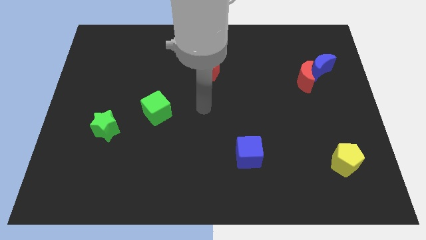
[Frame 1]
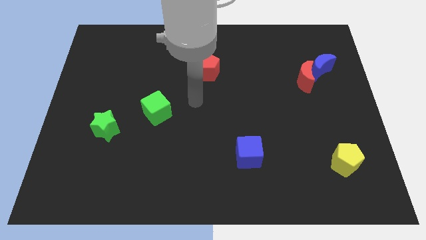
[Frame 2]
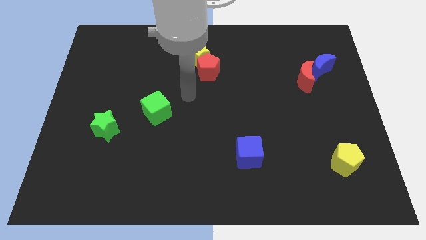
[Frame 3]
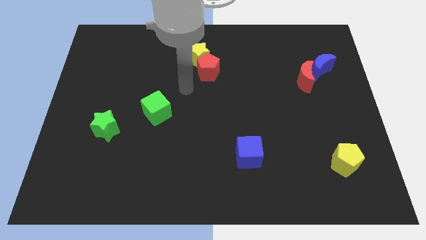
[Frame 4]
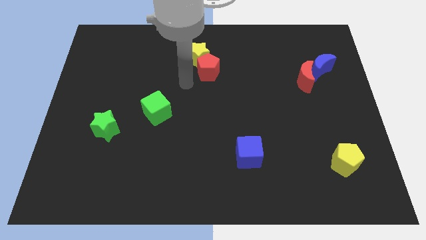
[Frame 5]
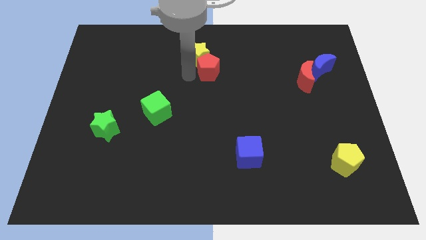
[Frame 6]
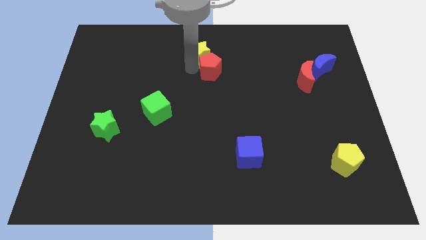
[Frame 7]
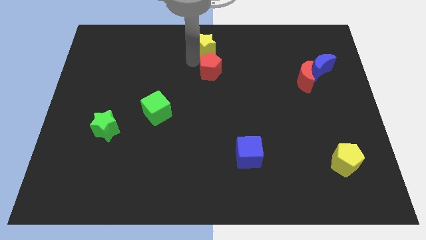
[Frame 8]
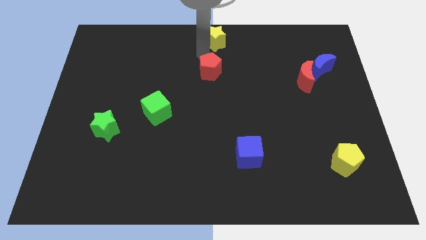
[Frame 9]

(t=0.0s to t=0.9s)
move the red pentagon away from the yellow star

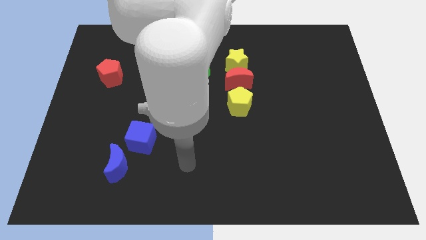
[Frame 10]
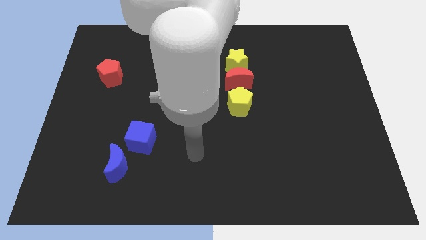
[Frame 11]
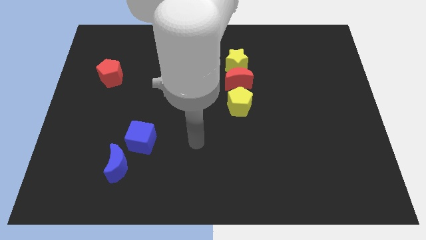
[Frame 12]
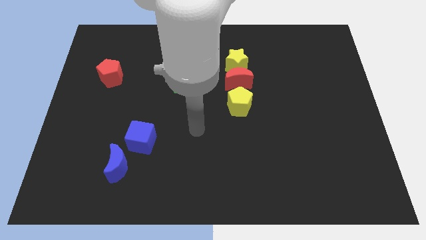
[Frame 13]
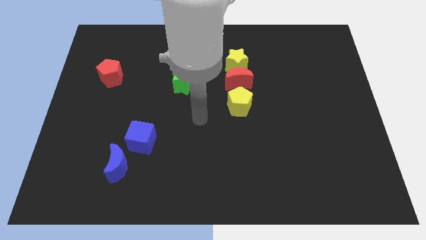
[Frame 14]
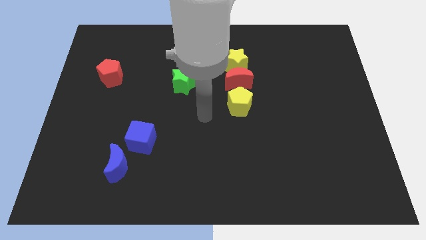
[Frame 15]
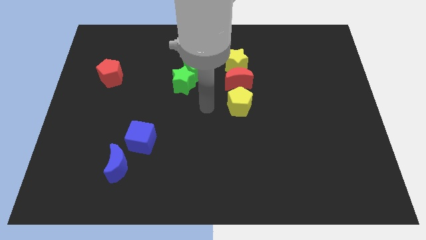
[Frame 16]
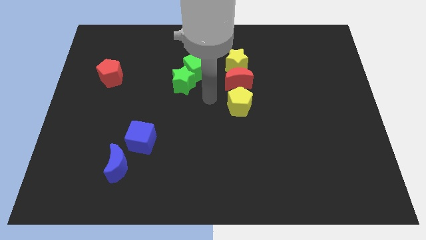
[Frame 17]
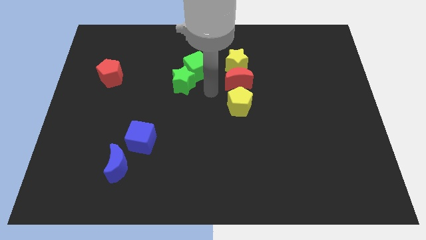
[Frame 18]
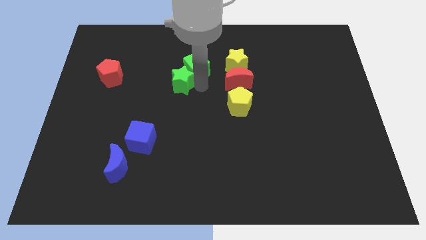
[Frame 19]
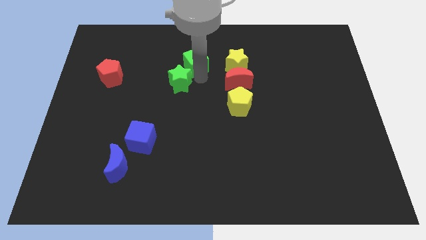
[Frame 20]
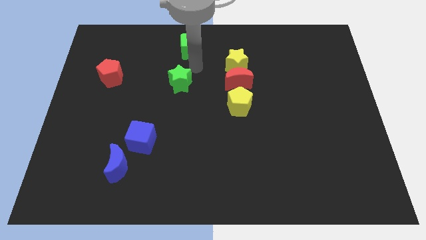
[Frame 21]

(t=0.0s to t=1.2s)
separate the green star from the green cube

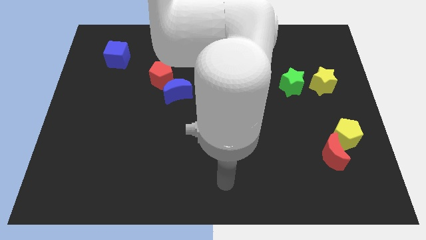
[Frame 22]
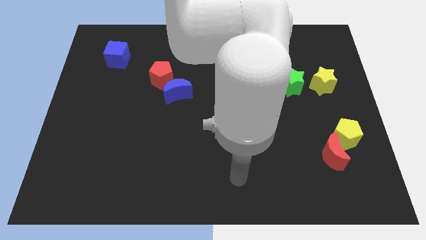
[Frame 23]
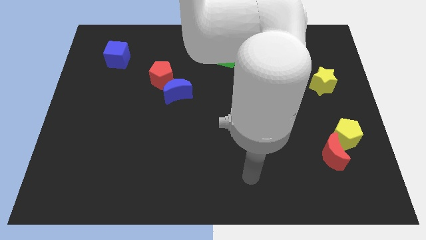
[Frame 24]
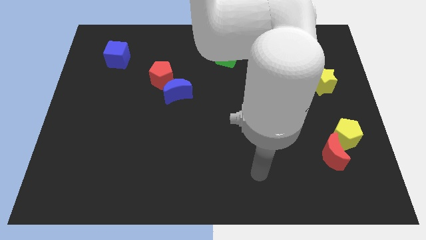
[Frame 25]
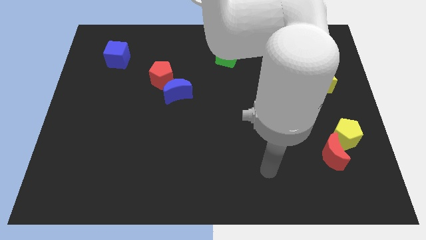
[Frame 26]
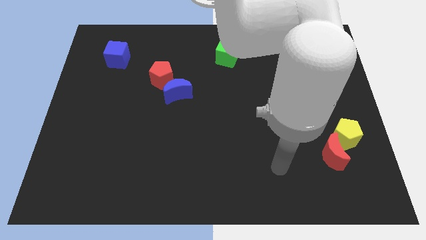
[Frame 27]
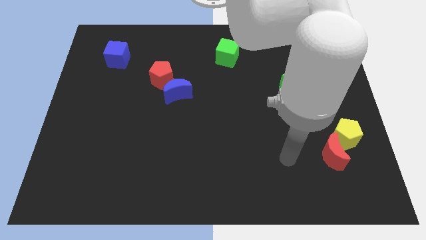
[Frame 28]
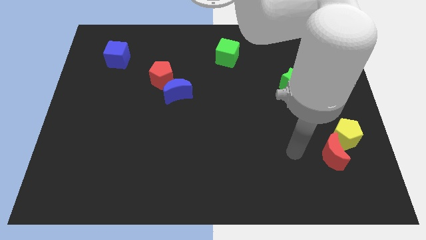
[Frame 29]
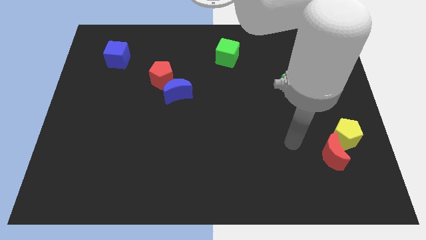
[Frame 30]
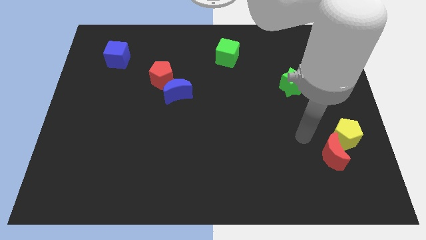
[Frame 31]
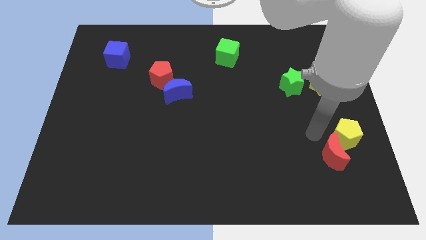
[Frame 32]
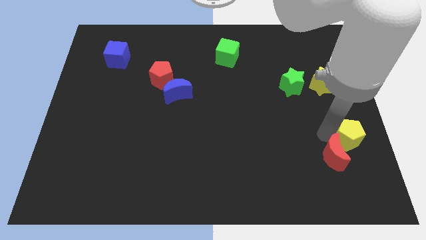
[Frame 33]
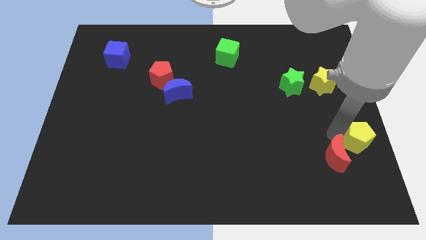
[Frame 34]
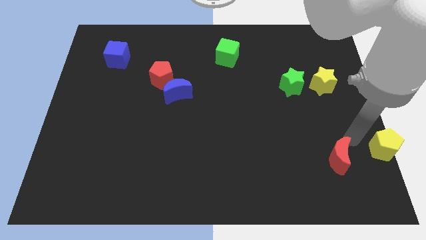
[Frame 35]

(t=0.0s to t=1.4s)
separate the red moon from the yellow pentagon

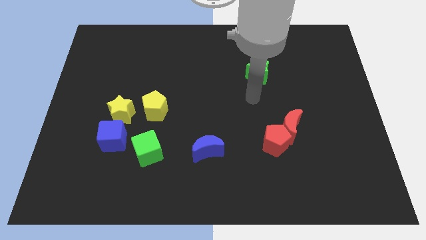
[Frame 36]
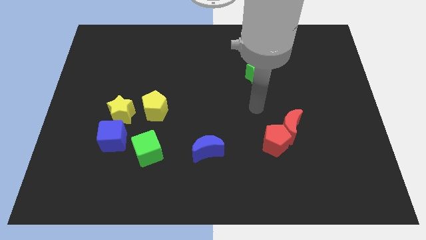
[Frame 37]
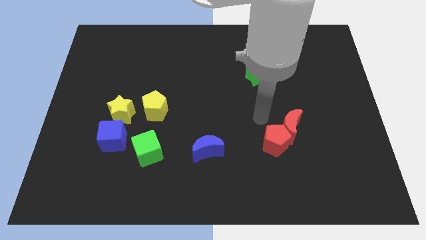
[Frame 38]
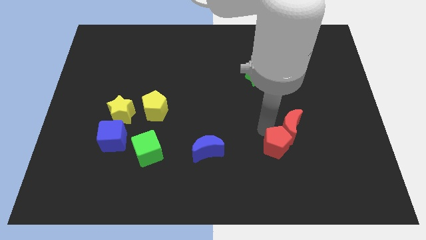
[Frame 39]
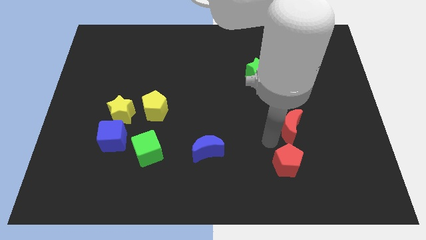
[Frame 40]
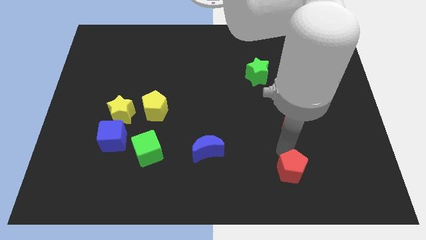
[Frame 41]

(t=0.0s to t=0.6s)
separate the red moon from the red pentagon

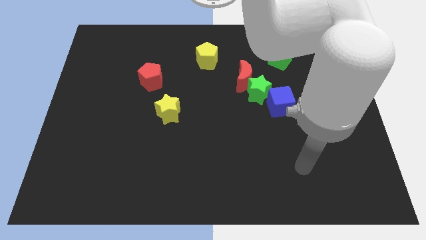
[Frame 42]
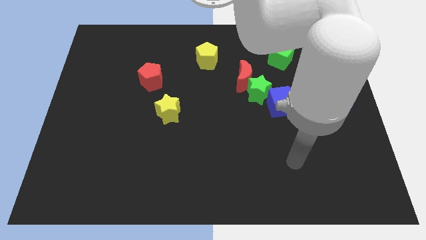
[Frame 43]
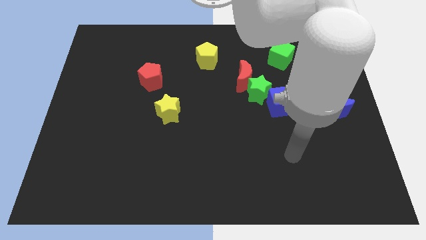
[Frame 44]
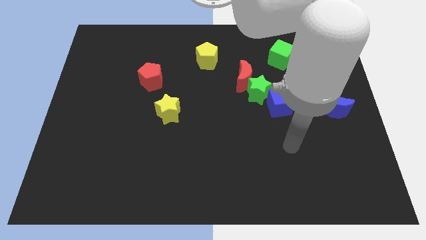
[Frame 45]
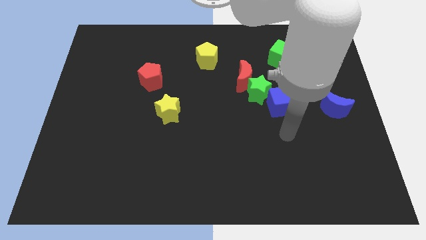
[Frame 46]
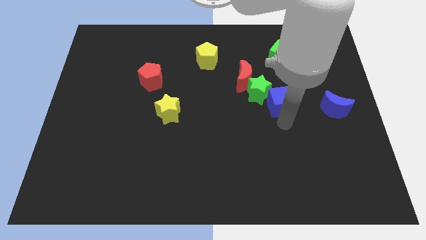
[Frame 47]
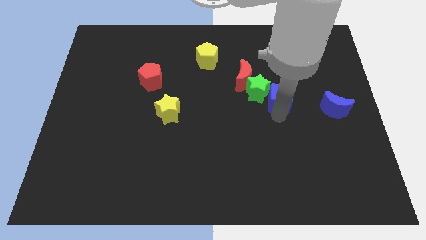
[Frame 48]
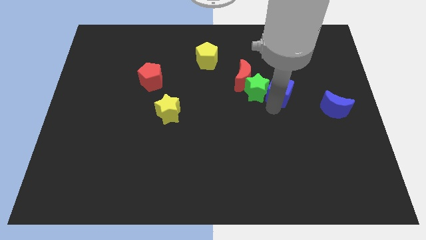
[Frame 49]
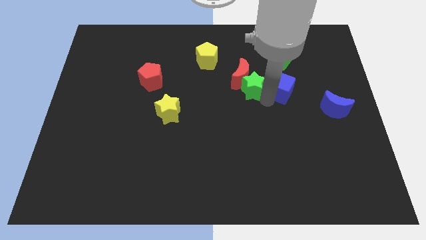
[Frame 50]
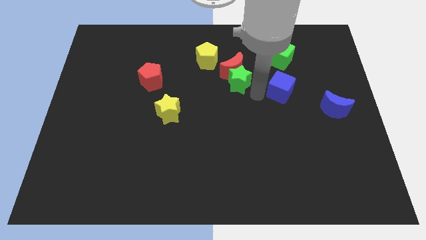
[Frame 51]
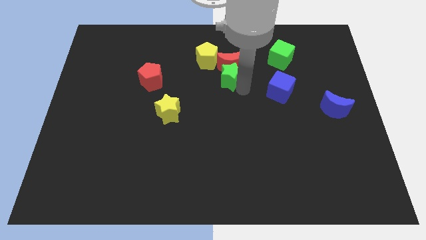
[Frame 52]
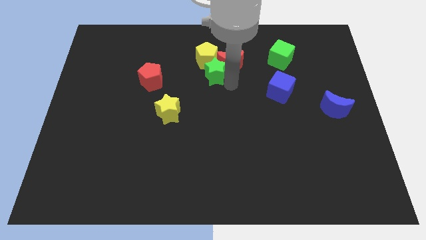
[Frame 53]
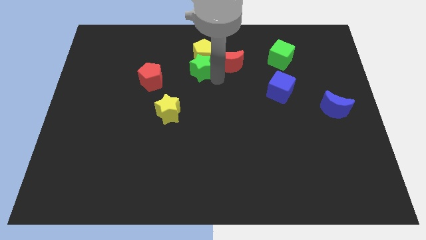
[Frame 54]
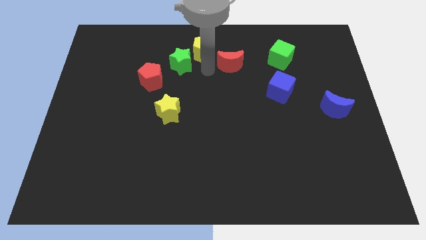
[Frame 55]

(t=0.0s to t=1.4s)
separate the red moon from the green star

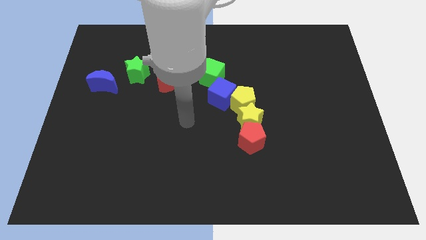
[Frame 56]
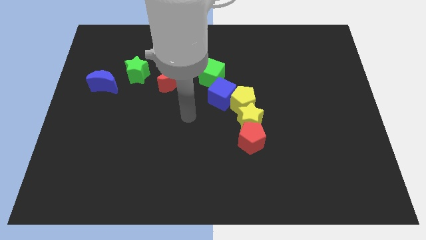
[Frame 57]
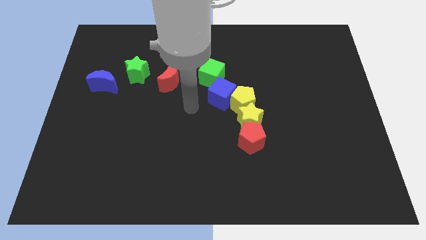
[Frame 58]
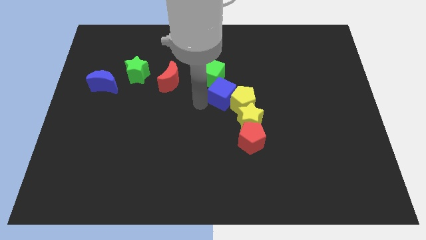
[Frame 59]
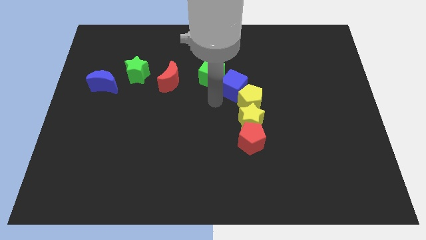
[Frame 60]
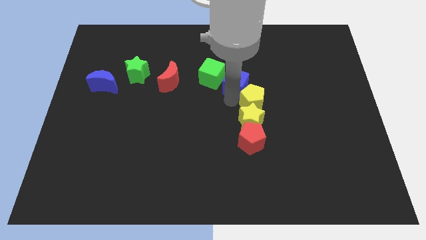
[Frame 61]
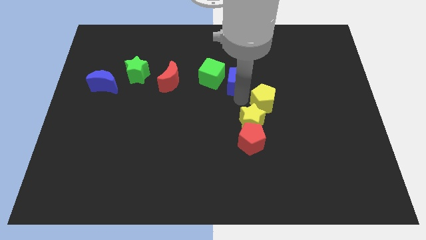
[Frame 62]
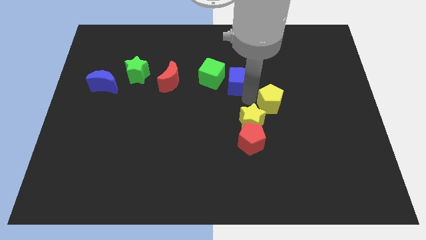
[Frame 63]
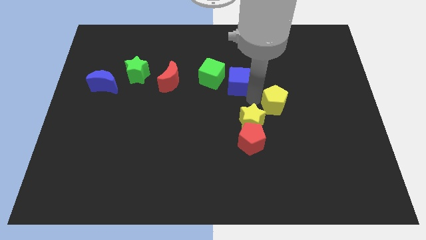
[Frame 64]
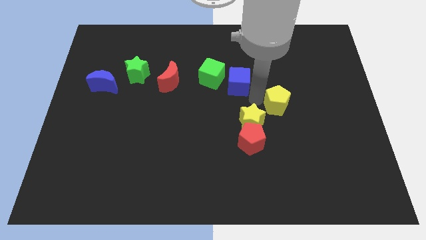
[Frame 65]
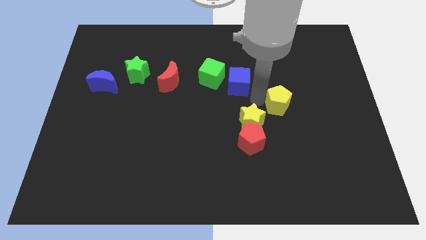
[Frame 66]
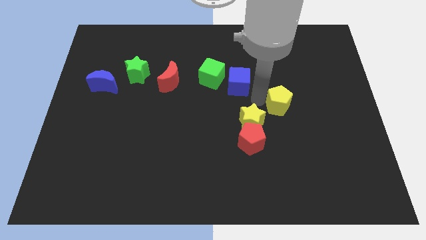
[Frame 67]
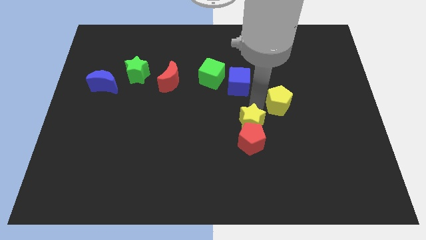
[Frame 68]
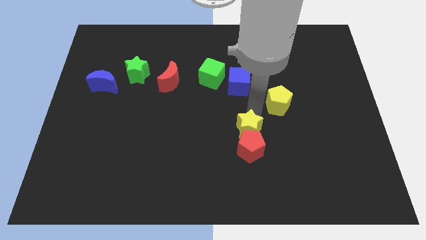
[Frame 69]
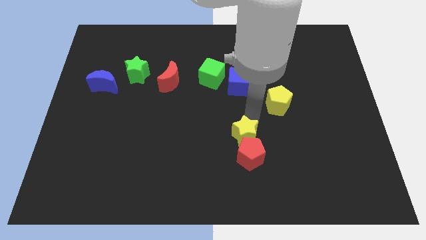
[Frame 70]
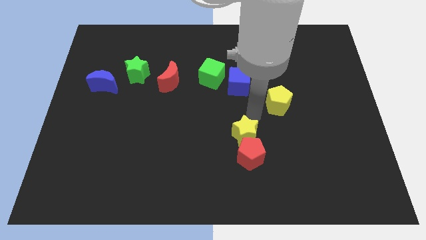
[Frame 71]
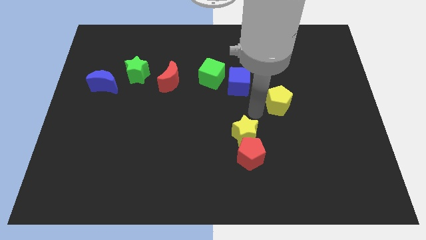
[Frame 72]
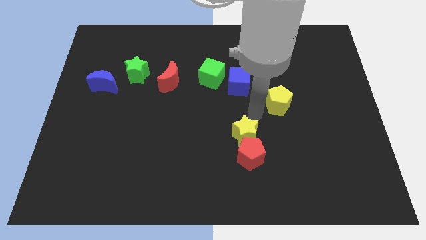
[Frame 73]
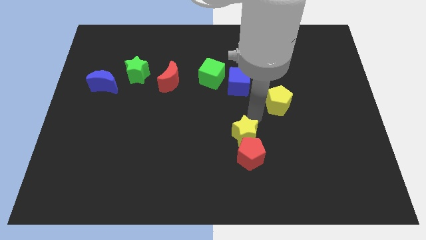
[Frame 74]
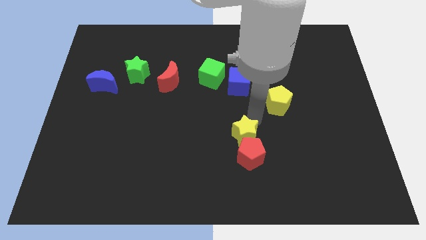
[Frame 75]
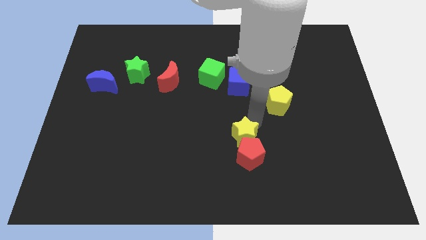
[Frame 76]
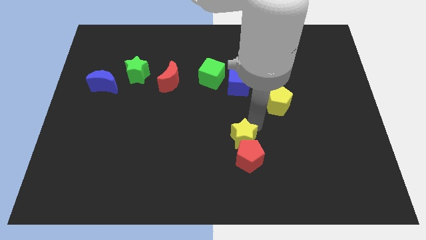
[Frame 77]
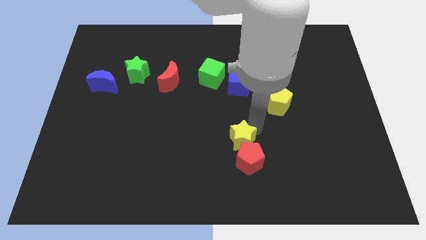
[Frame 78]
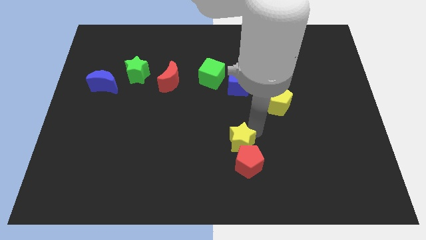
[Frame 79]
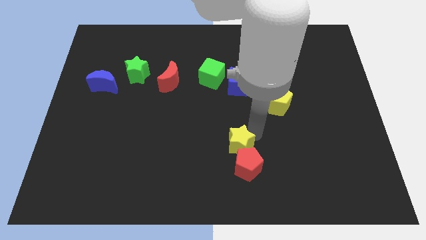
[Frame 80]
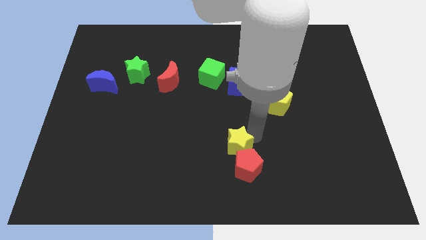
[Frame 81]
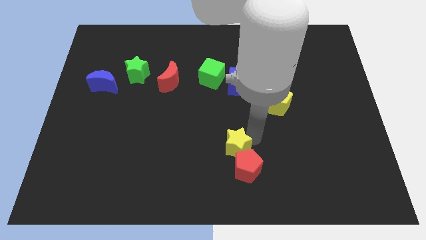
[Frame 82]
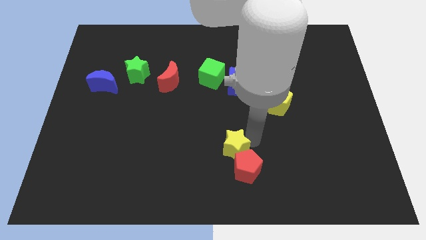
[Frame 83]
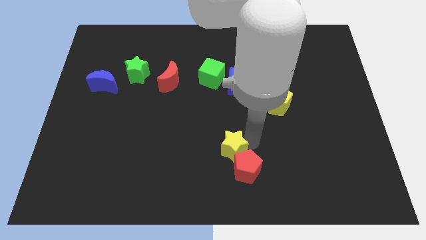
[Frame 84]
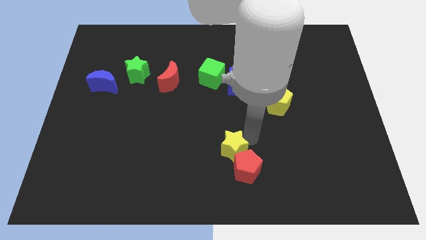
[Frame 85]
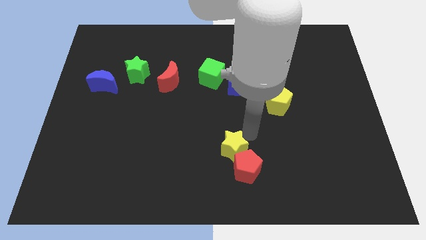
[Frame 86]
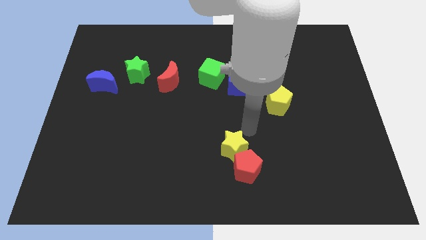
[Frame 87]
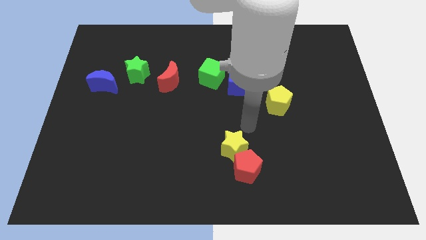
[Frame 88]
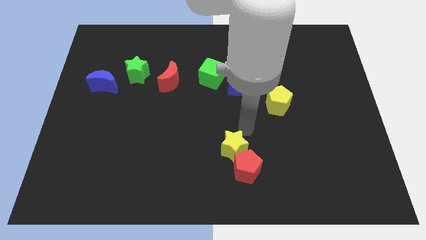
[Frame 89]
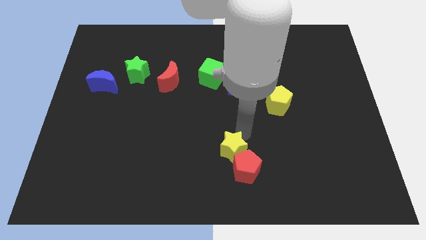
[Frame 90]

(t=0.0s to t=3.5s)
move the yellow star away from the yellow pentagon, red pentagon, and blue cube

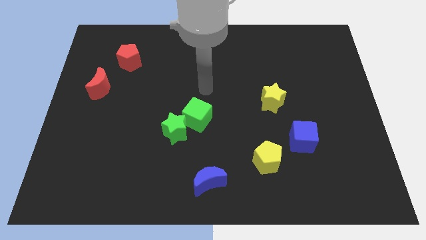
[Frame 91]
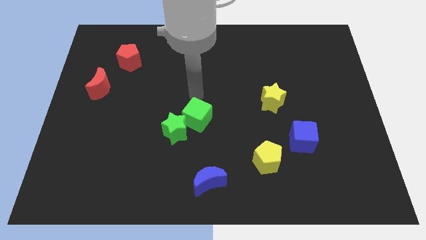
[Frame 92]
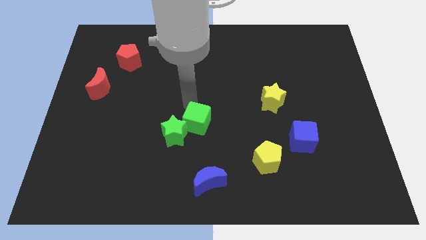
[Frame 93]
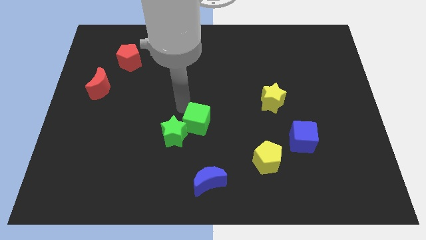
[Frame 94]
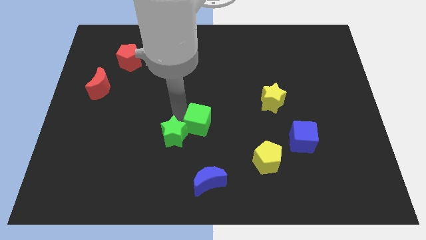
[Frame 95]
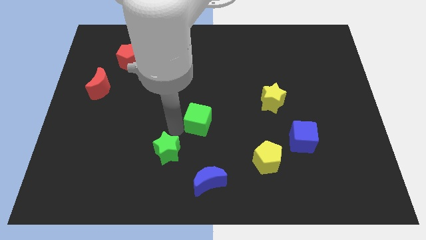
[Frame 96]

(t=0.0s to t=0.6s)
separate the green cube from the green star
